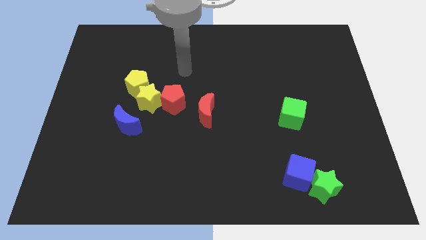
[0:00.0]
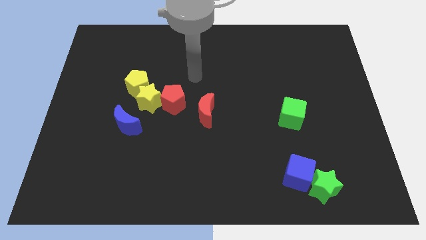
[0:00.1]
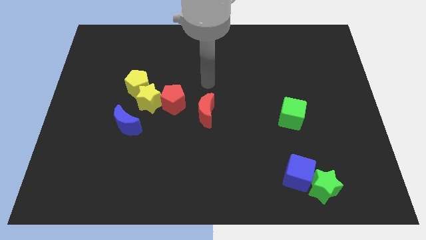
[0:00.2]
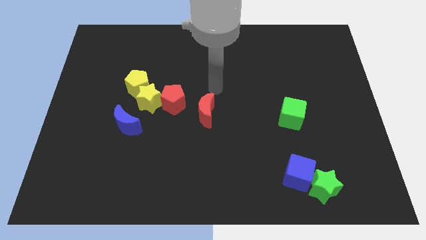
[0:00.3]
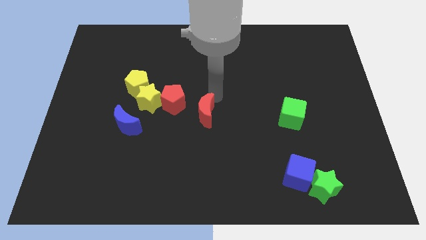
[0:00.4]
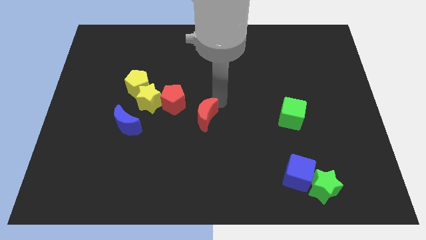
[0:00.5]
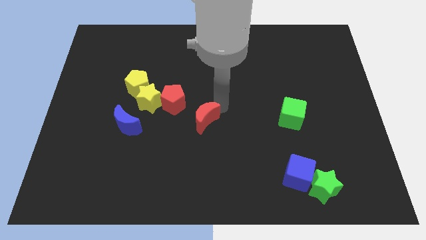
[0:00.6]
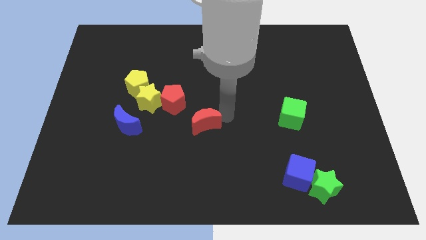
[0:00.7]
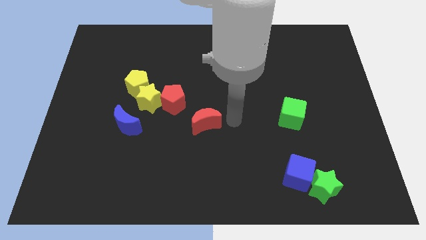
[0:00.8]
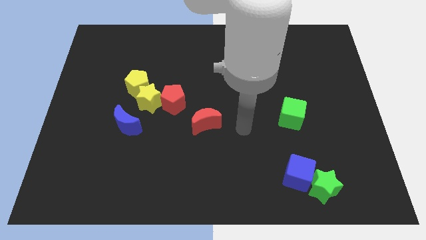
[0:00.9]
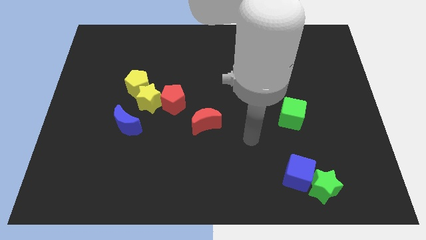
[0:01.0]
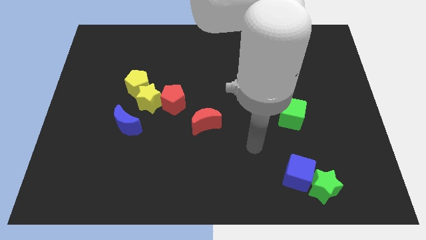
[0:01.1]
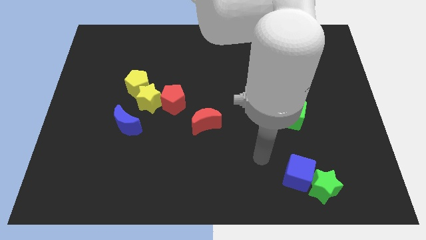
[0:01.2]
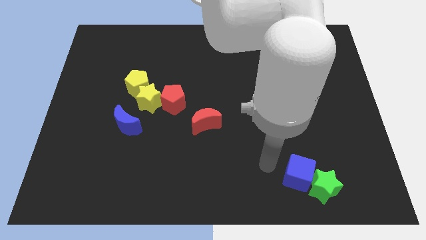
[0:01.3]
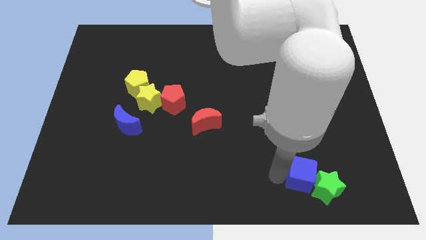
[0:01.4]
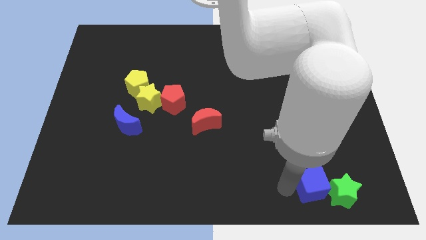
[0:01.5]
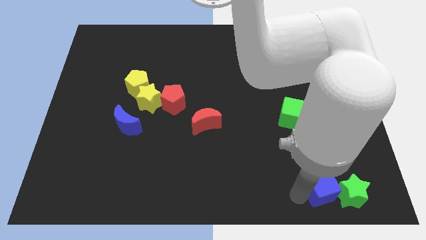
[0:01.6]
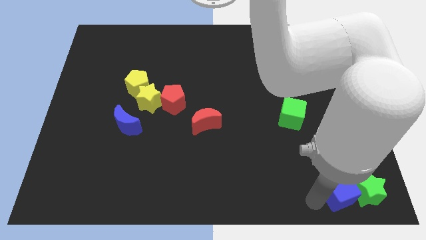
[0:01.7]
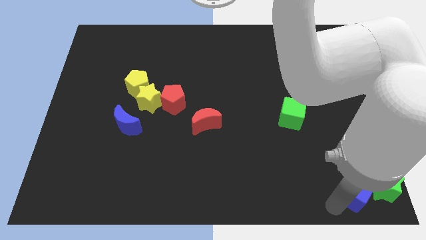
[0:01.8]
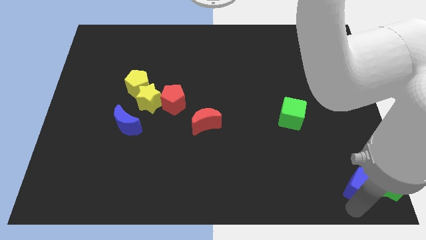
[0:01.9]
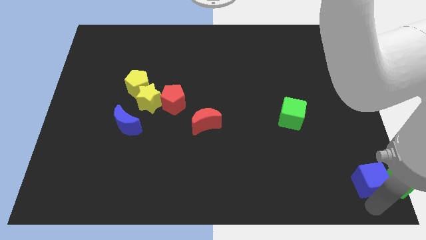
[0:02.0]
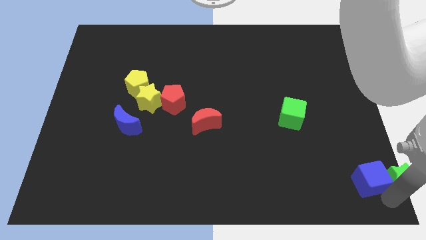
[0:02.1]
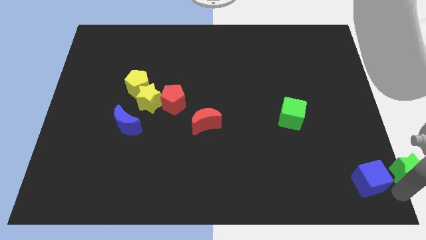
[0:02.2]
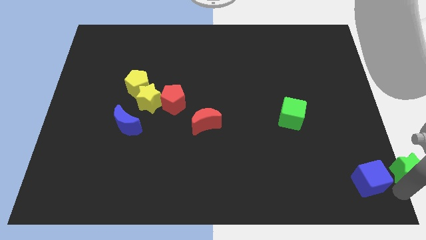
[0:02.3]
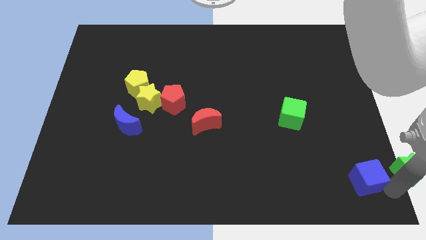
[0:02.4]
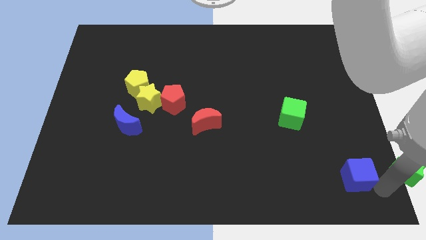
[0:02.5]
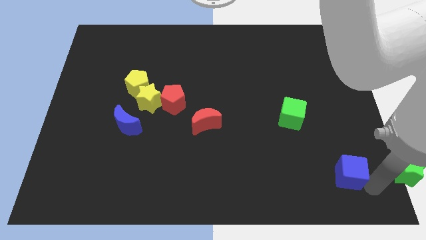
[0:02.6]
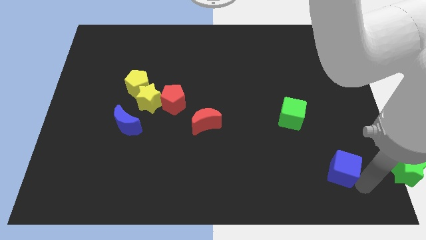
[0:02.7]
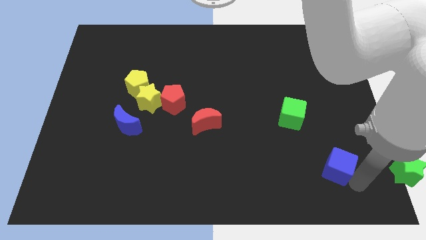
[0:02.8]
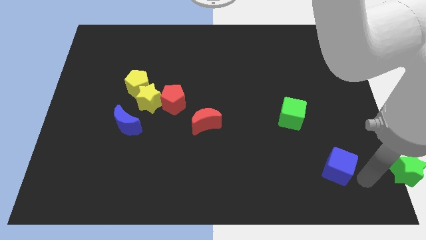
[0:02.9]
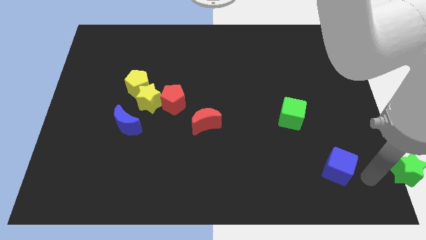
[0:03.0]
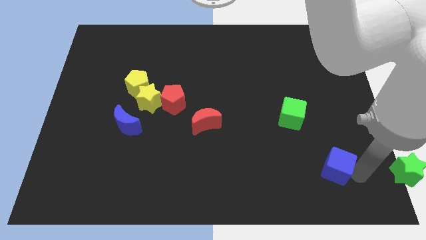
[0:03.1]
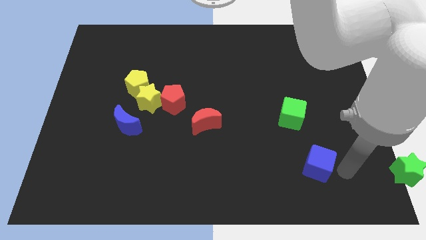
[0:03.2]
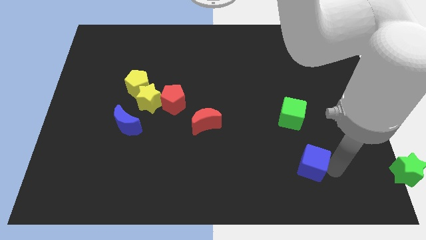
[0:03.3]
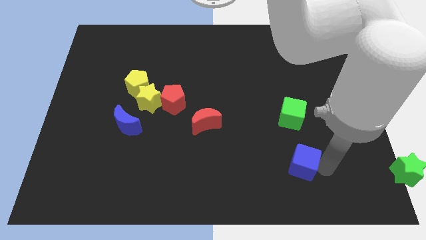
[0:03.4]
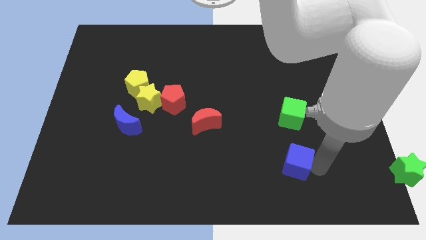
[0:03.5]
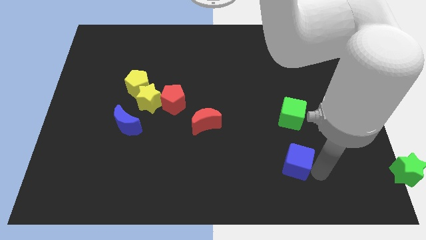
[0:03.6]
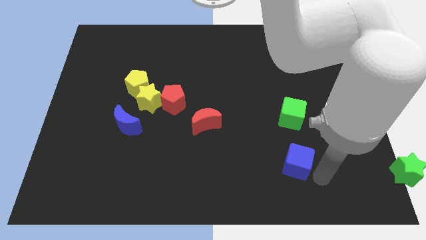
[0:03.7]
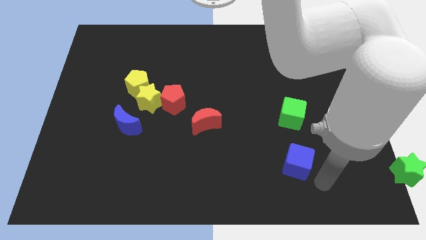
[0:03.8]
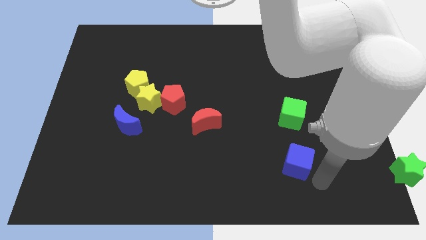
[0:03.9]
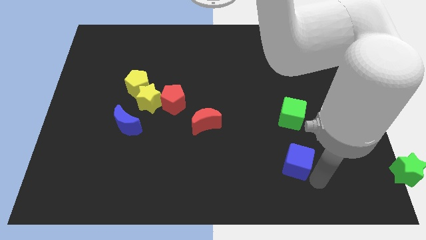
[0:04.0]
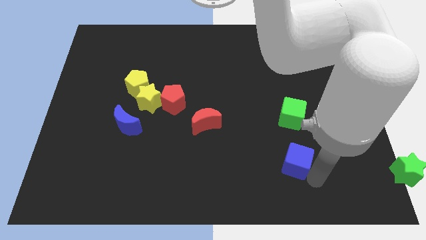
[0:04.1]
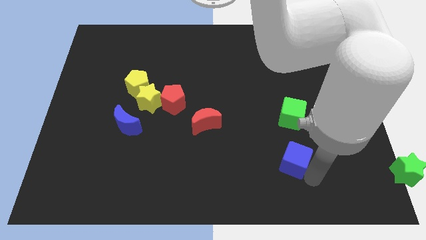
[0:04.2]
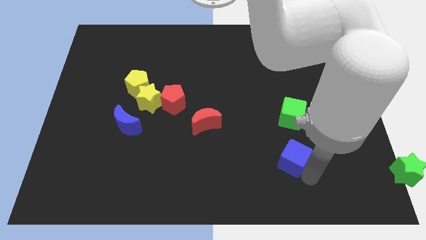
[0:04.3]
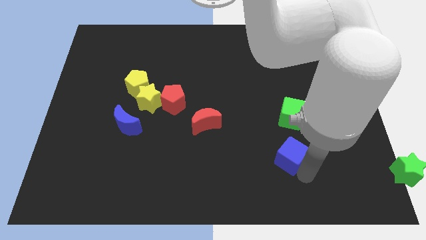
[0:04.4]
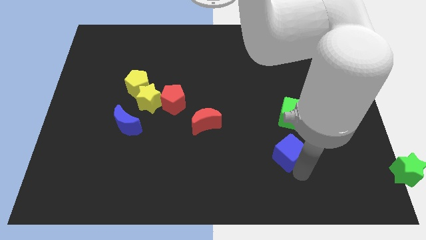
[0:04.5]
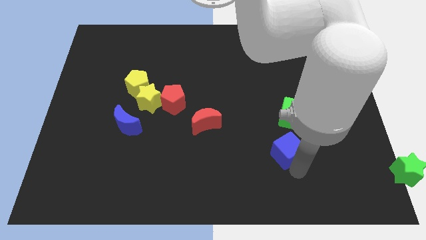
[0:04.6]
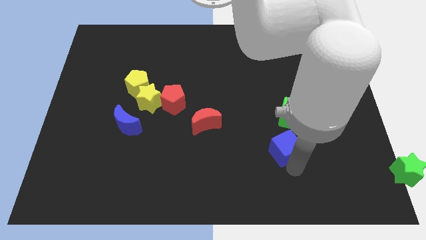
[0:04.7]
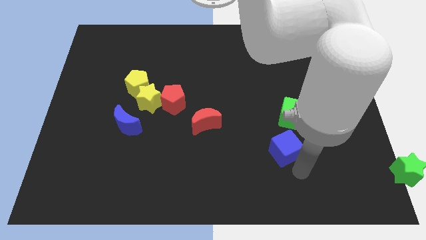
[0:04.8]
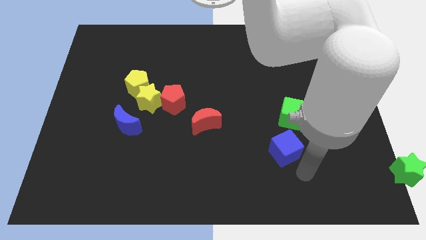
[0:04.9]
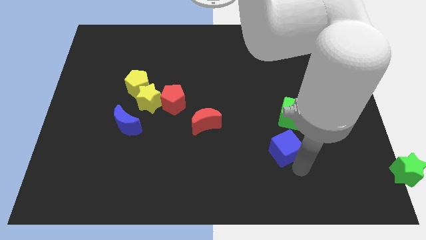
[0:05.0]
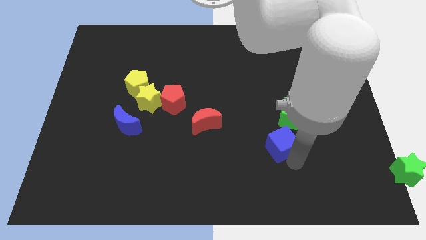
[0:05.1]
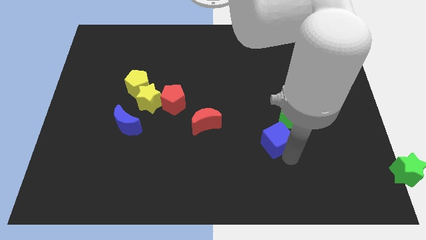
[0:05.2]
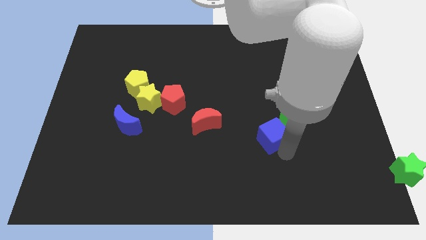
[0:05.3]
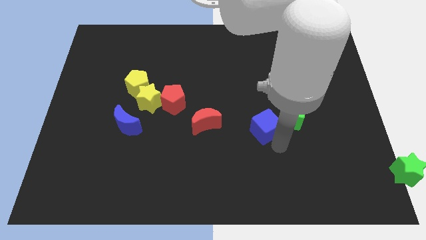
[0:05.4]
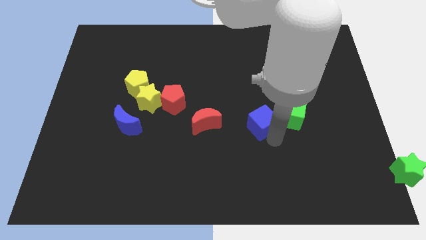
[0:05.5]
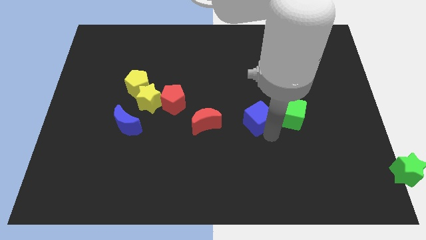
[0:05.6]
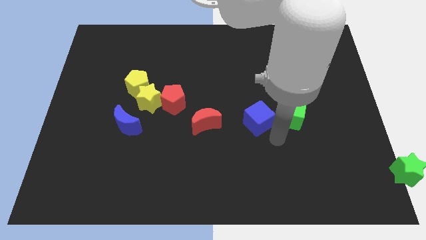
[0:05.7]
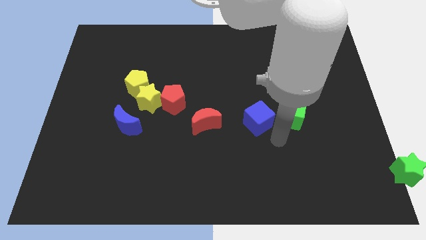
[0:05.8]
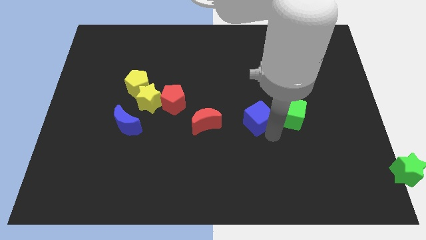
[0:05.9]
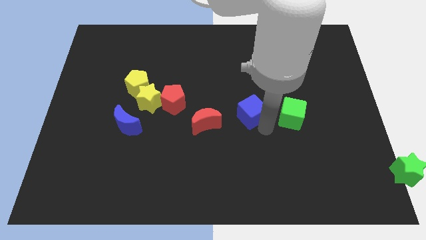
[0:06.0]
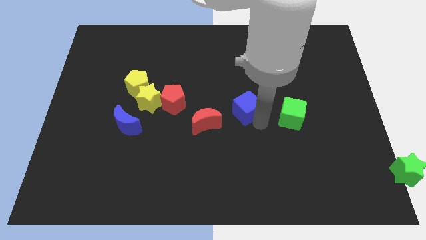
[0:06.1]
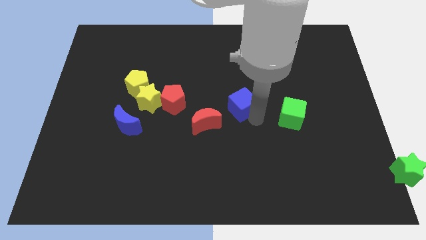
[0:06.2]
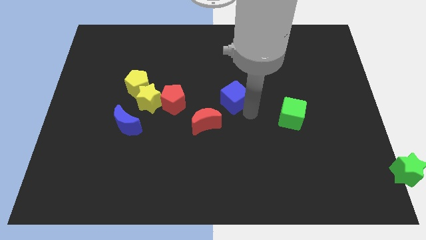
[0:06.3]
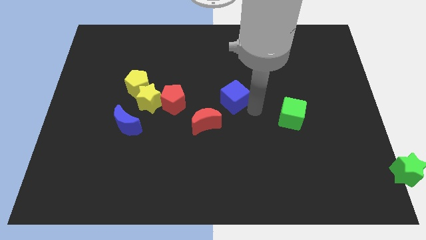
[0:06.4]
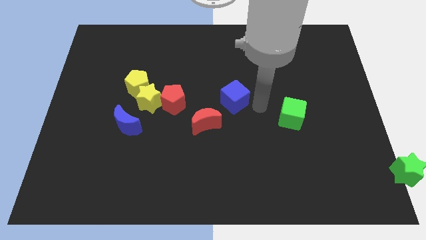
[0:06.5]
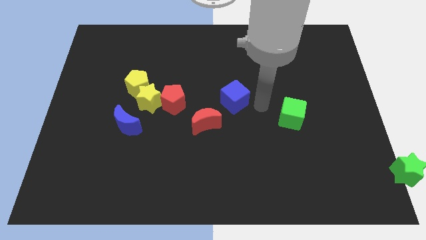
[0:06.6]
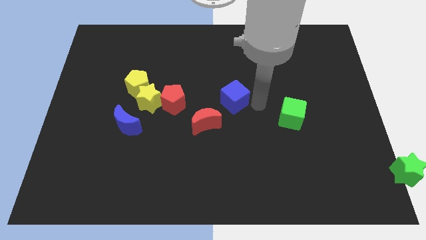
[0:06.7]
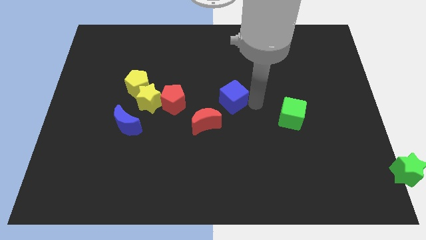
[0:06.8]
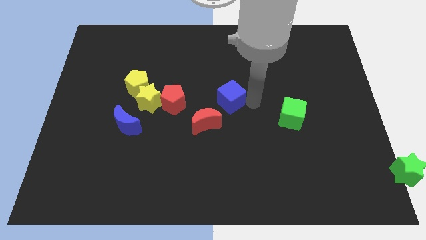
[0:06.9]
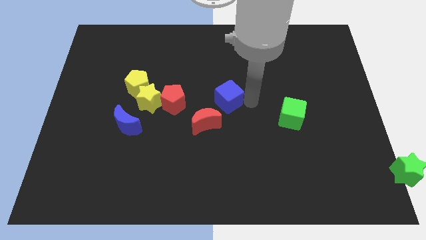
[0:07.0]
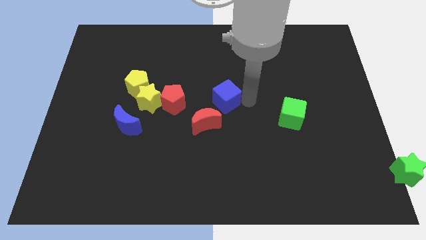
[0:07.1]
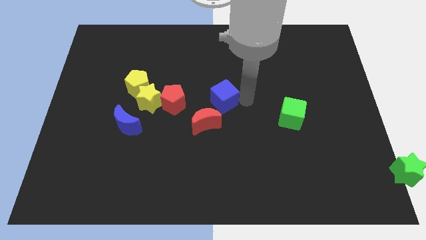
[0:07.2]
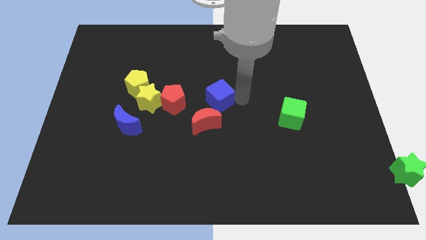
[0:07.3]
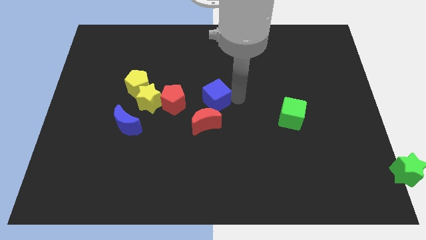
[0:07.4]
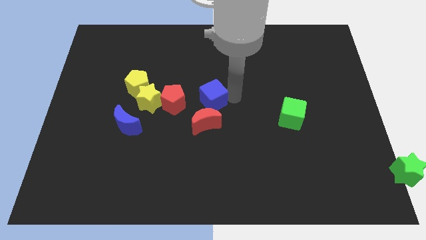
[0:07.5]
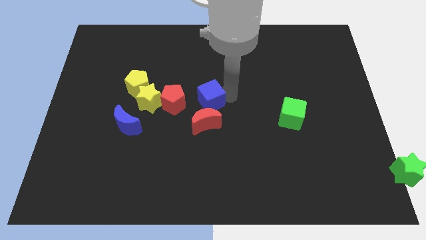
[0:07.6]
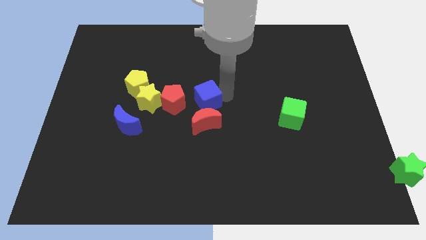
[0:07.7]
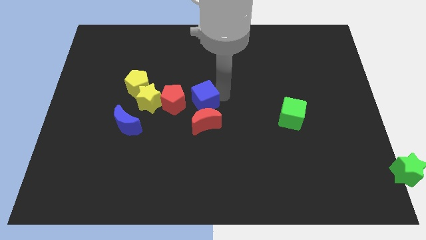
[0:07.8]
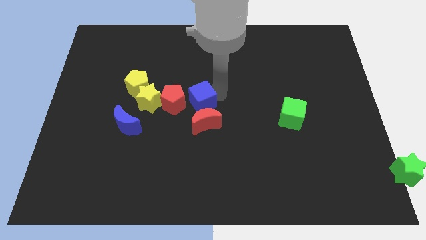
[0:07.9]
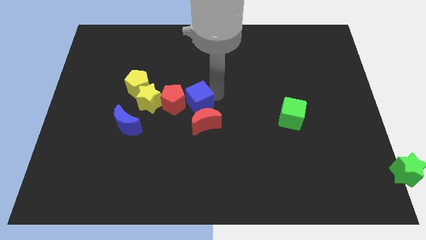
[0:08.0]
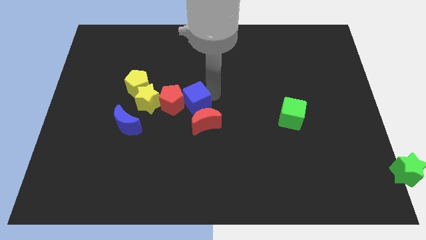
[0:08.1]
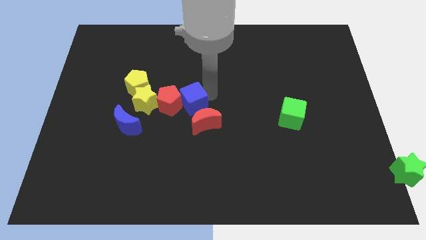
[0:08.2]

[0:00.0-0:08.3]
move the blue cube to the right side of the yellow pentagon
